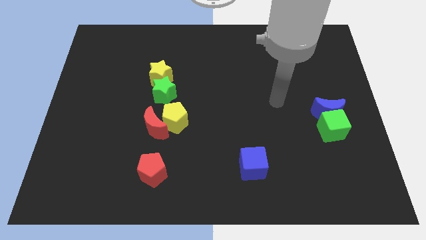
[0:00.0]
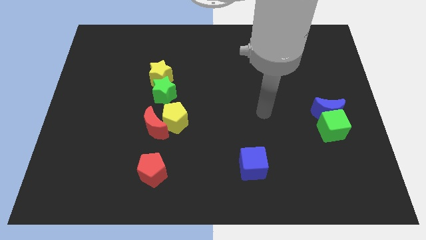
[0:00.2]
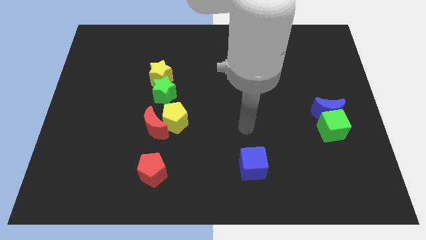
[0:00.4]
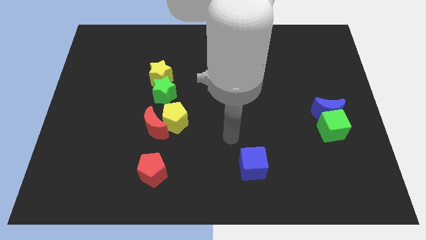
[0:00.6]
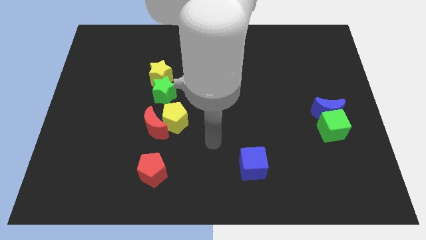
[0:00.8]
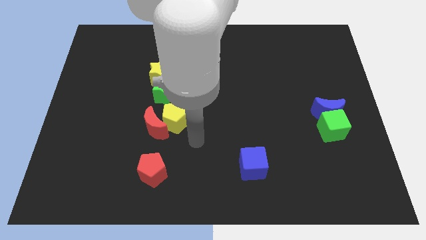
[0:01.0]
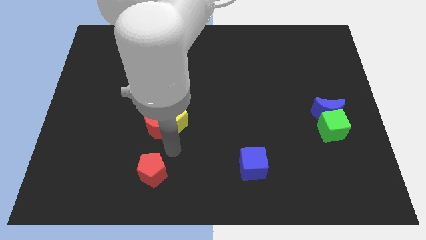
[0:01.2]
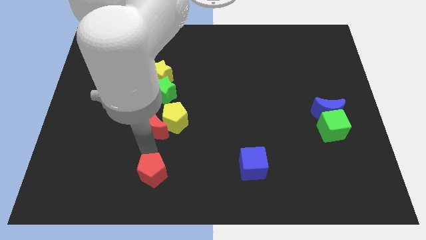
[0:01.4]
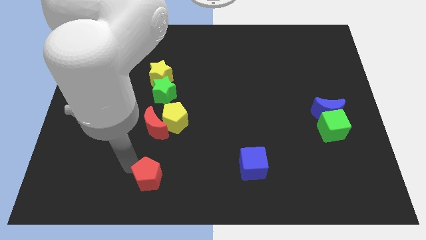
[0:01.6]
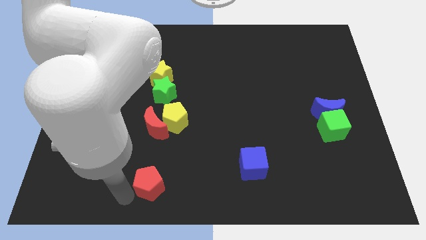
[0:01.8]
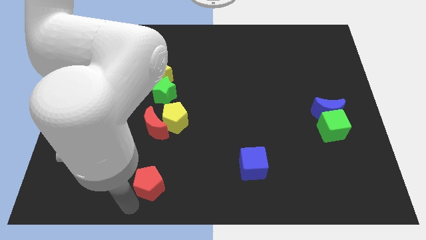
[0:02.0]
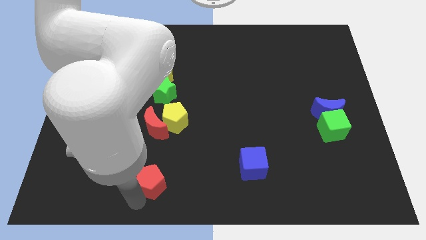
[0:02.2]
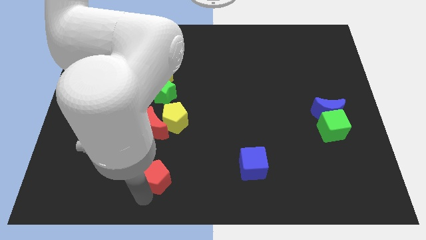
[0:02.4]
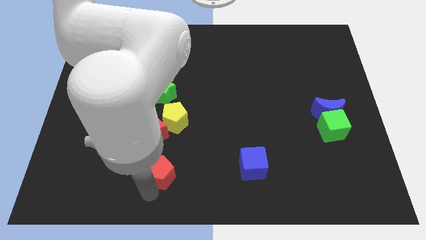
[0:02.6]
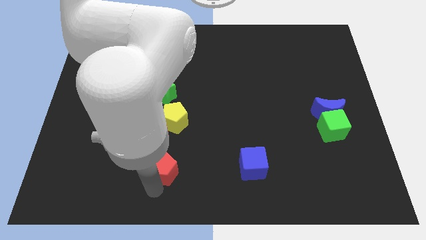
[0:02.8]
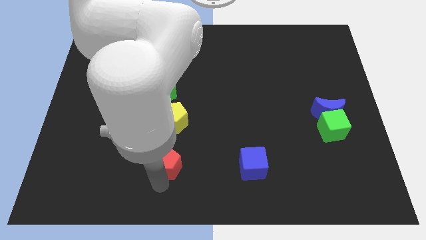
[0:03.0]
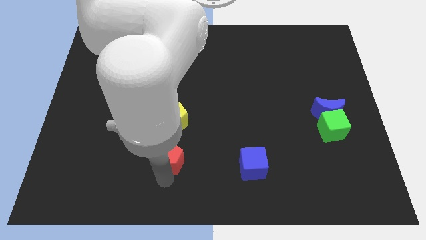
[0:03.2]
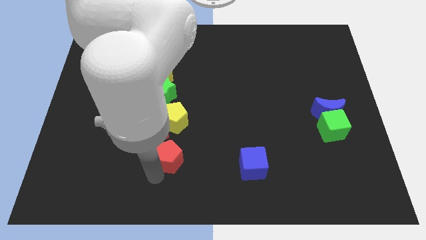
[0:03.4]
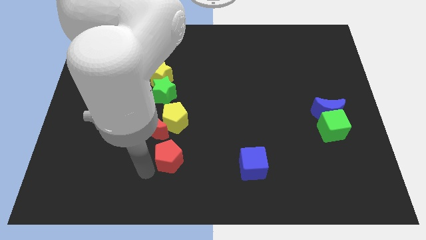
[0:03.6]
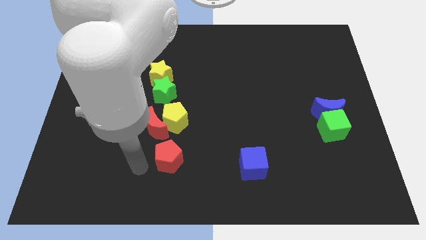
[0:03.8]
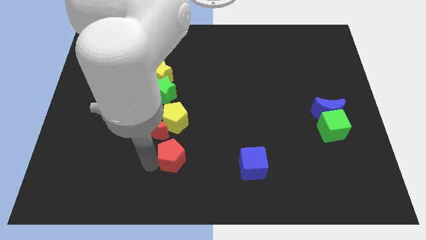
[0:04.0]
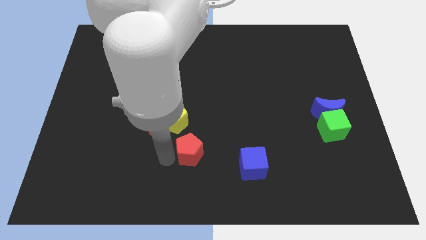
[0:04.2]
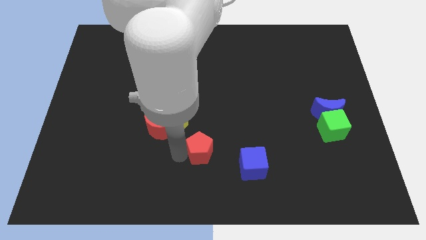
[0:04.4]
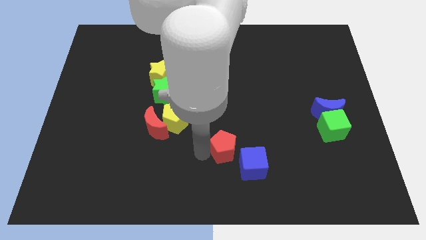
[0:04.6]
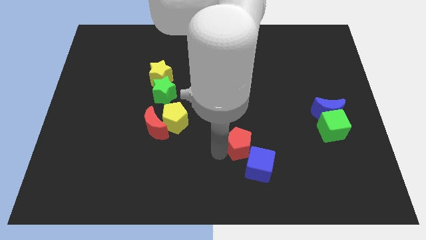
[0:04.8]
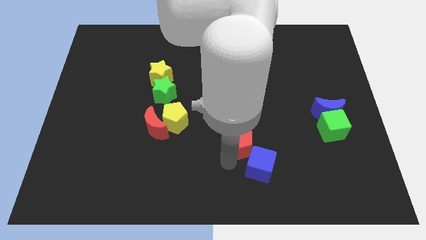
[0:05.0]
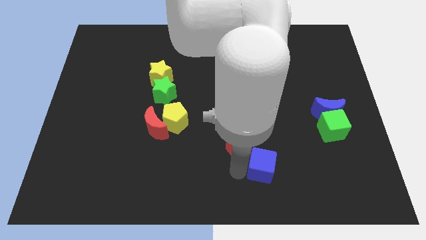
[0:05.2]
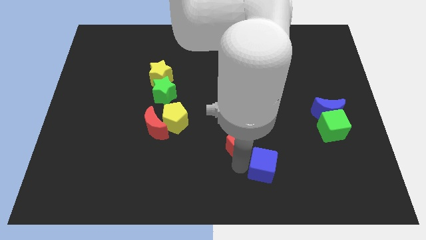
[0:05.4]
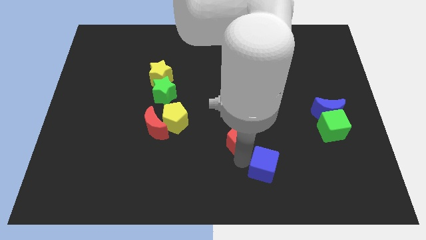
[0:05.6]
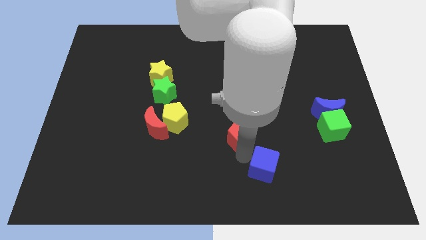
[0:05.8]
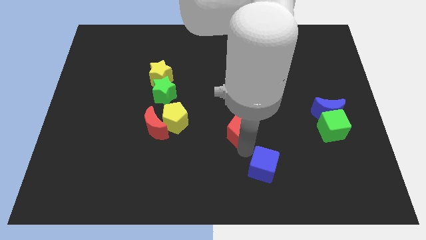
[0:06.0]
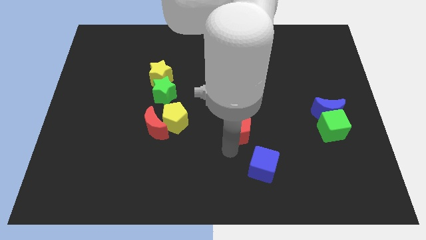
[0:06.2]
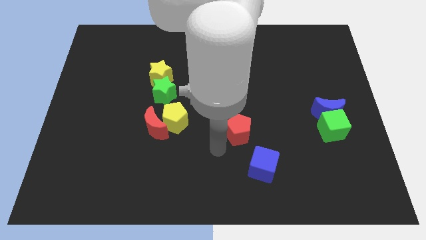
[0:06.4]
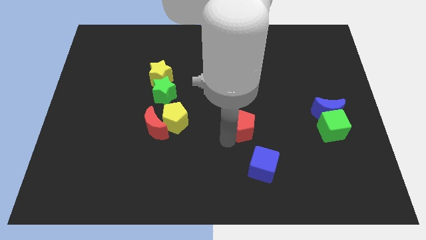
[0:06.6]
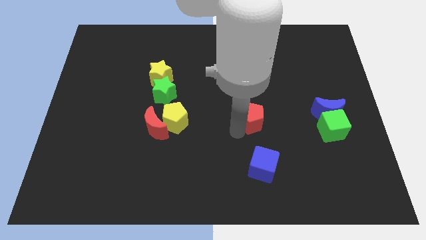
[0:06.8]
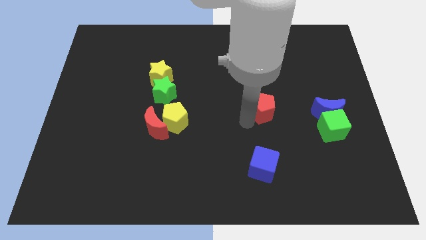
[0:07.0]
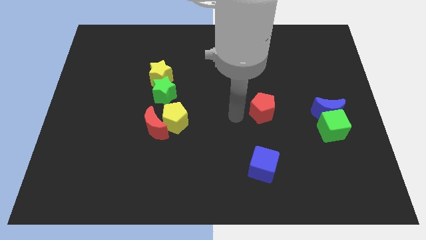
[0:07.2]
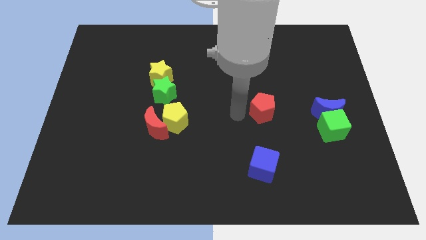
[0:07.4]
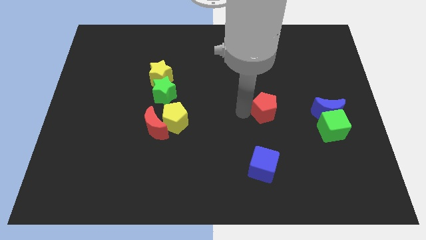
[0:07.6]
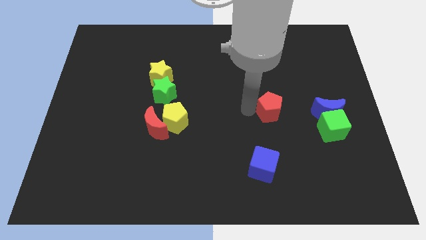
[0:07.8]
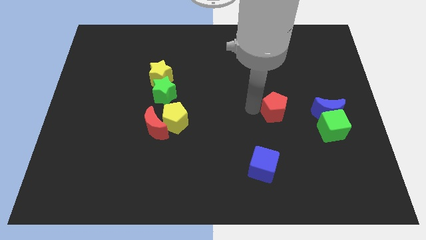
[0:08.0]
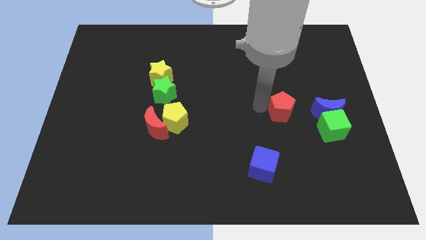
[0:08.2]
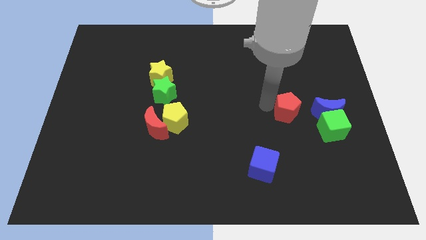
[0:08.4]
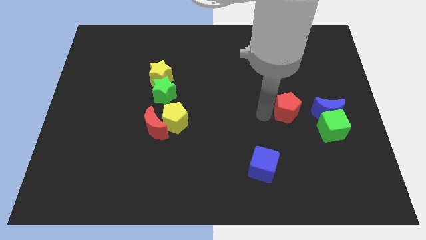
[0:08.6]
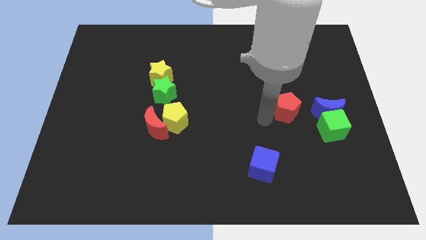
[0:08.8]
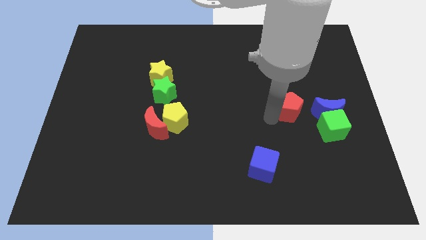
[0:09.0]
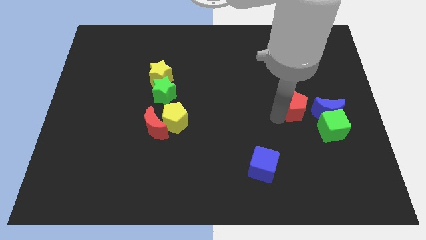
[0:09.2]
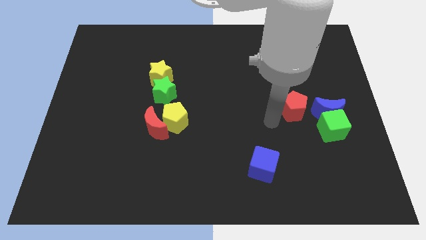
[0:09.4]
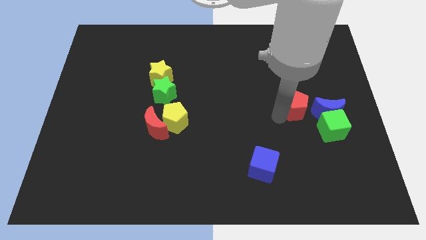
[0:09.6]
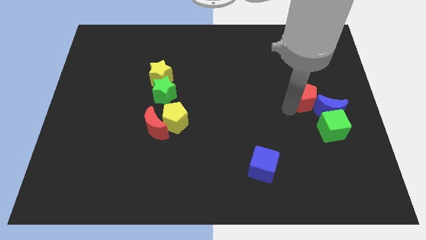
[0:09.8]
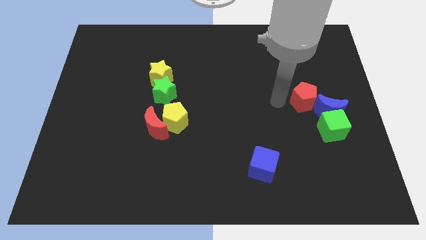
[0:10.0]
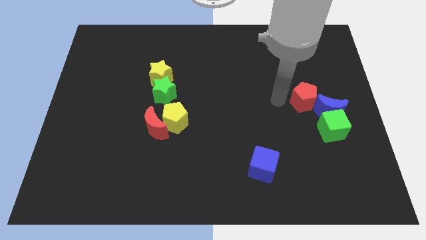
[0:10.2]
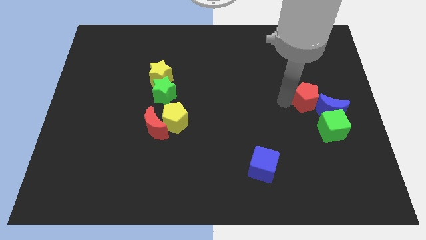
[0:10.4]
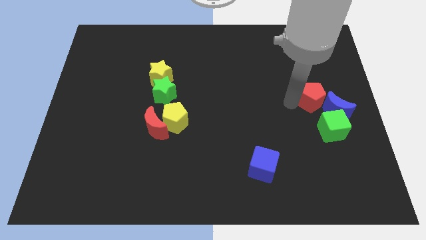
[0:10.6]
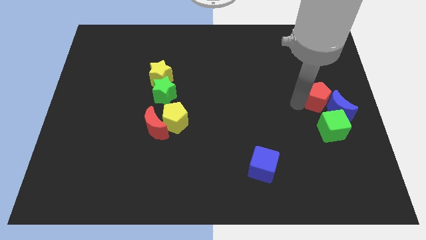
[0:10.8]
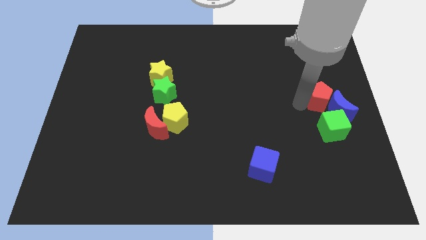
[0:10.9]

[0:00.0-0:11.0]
move the red pentagon to the right side of the board

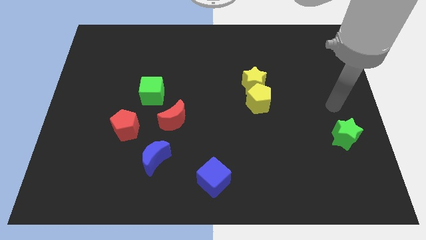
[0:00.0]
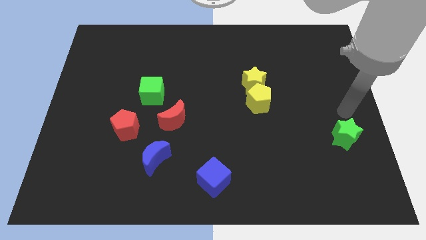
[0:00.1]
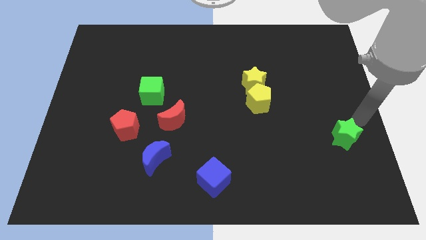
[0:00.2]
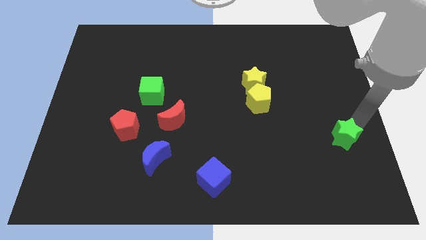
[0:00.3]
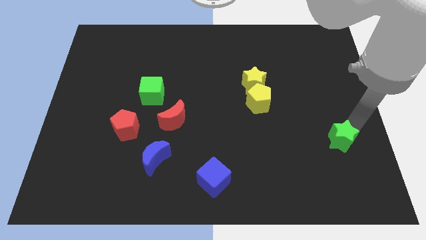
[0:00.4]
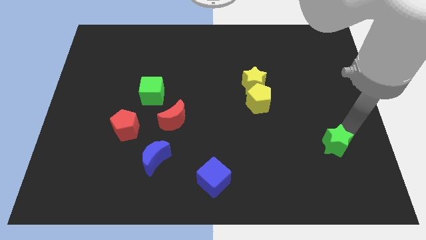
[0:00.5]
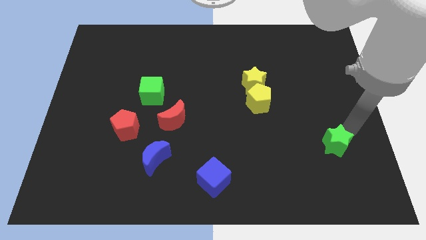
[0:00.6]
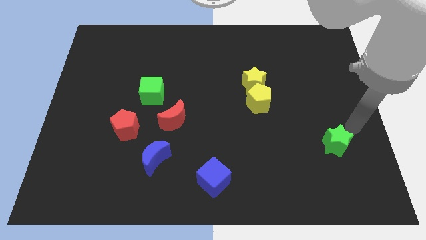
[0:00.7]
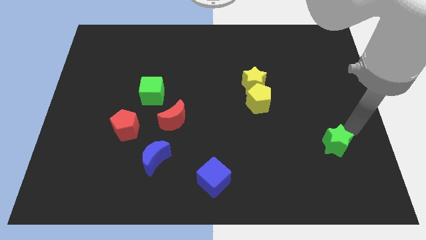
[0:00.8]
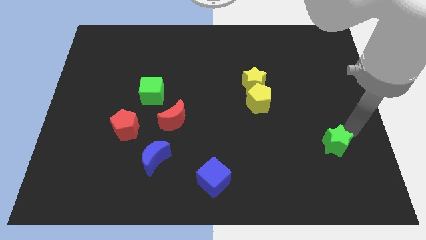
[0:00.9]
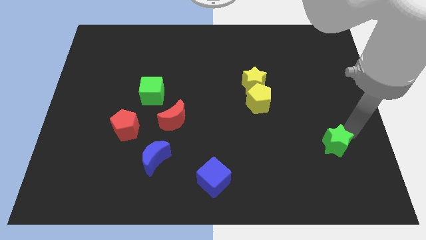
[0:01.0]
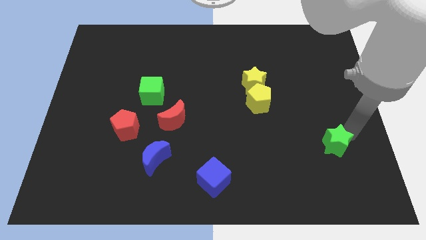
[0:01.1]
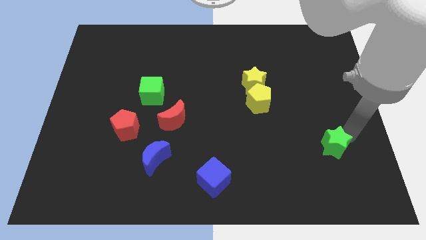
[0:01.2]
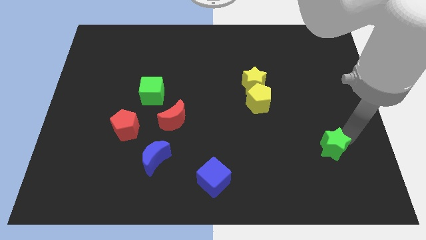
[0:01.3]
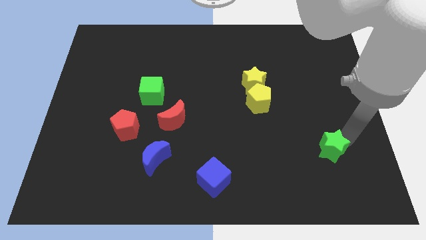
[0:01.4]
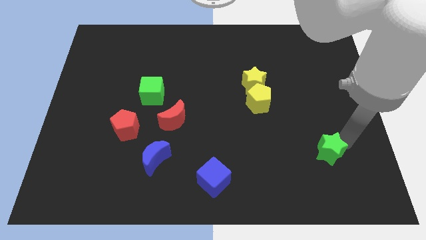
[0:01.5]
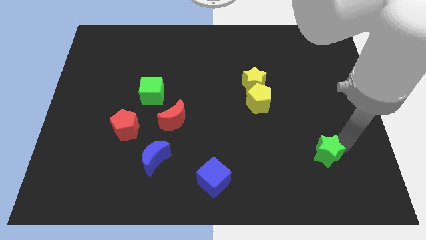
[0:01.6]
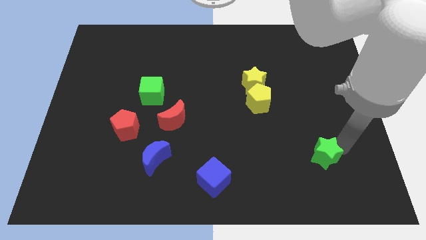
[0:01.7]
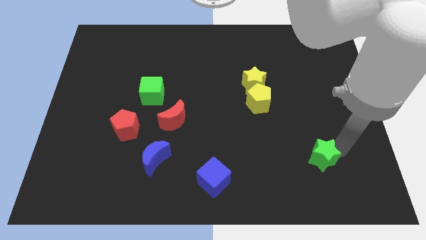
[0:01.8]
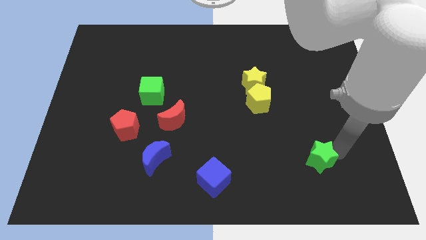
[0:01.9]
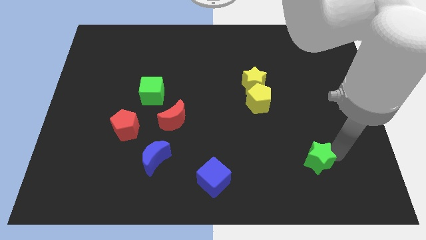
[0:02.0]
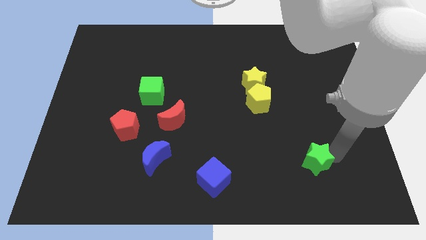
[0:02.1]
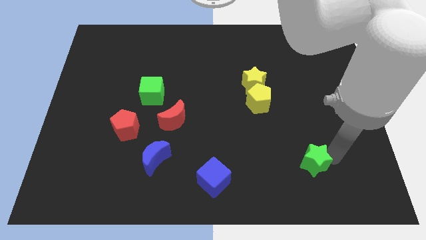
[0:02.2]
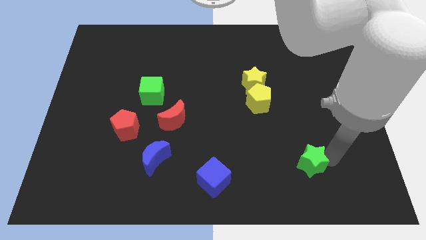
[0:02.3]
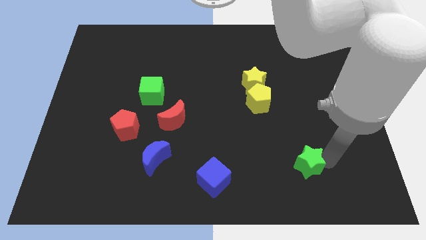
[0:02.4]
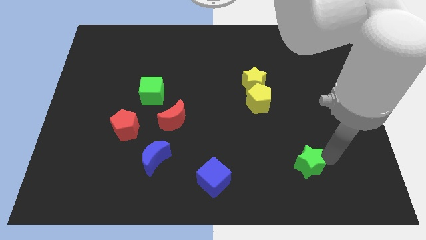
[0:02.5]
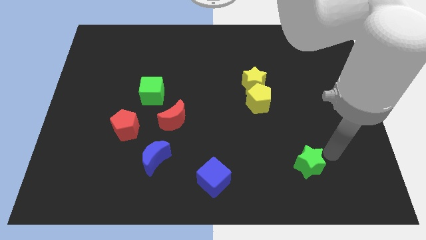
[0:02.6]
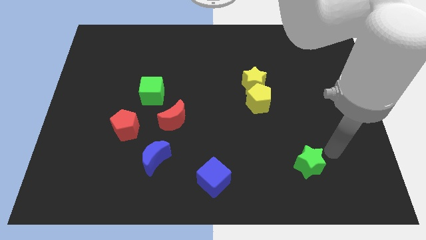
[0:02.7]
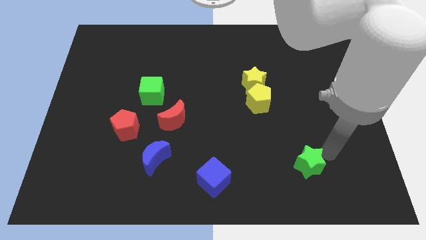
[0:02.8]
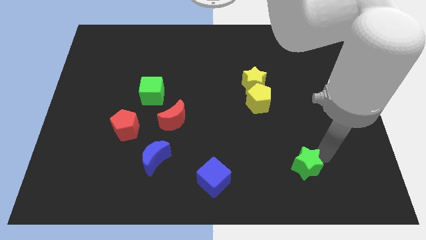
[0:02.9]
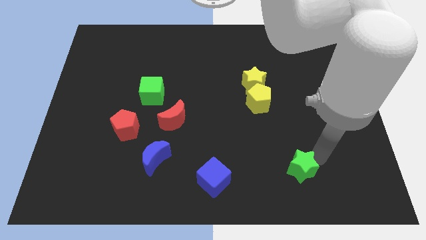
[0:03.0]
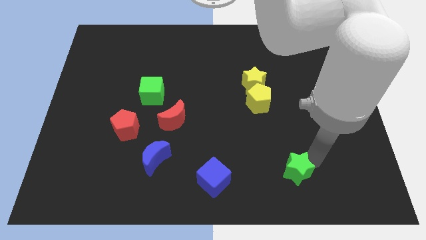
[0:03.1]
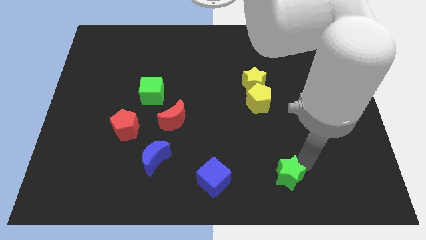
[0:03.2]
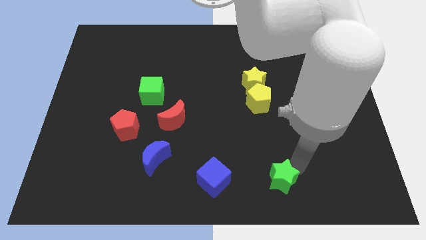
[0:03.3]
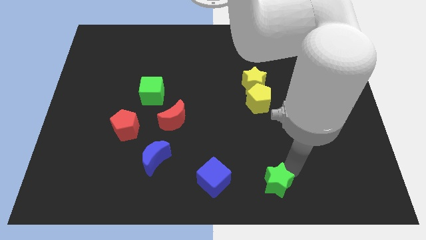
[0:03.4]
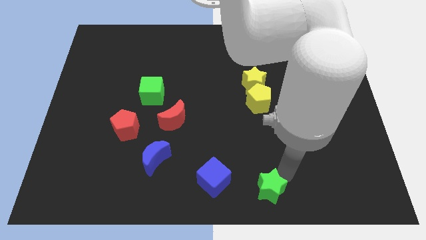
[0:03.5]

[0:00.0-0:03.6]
put the green star to the bottom side
